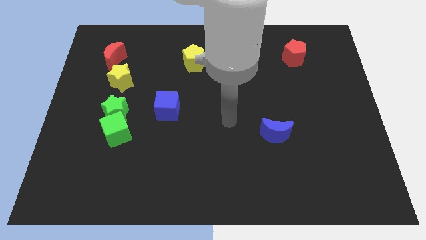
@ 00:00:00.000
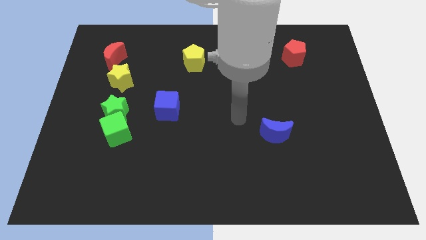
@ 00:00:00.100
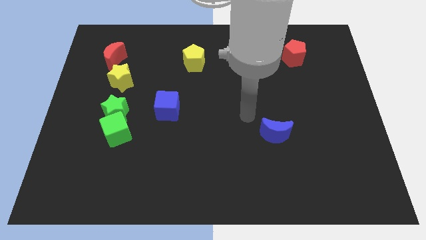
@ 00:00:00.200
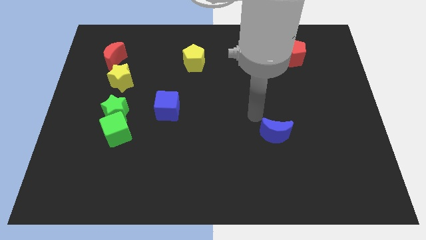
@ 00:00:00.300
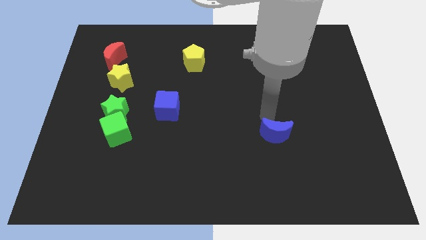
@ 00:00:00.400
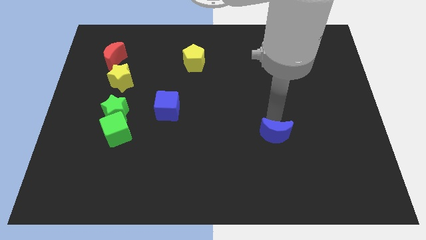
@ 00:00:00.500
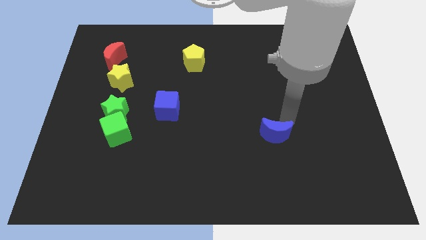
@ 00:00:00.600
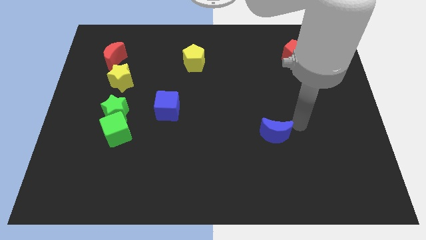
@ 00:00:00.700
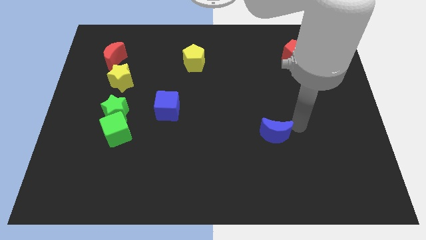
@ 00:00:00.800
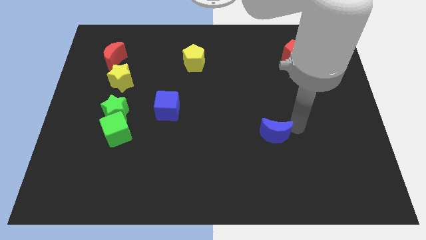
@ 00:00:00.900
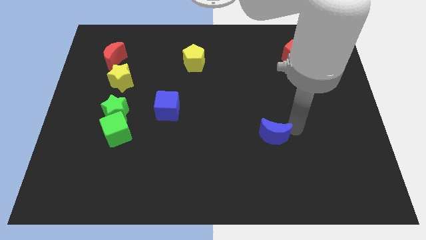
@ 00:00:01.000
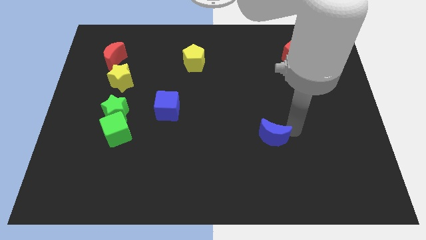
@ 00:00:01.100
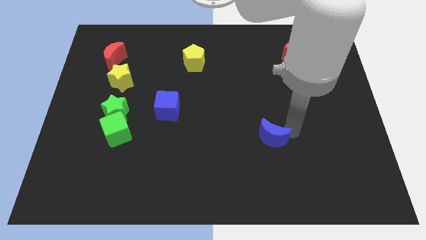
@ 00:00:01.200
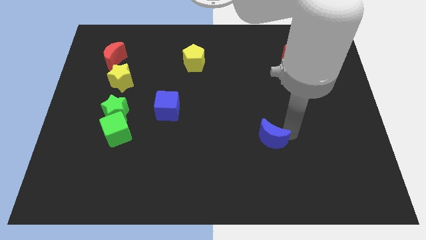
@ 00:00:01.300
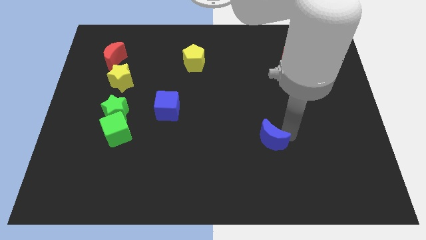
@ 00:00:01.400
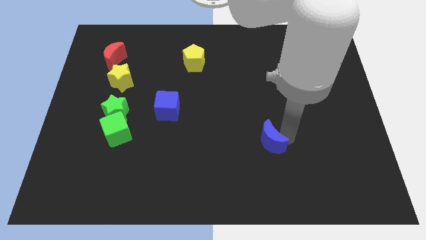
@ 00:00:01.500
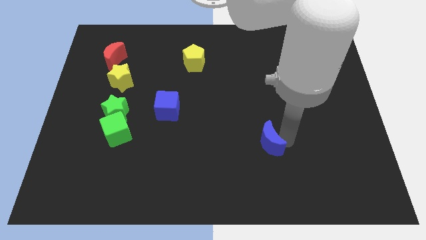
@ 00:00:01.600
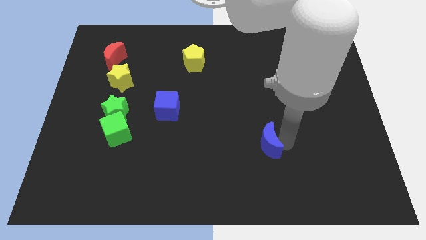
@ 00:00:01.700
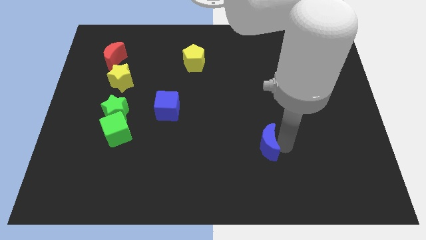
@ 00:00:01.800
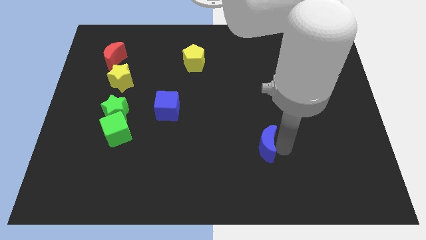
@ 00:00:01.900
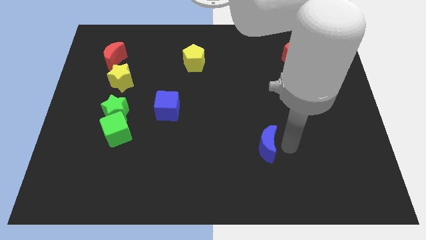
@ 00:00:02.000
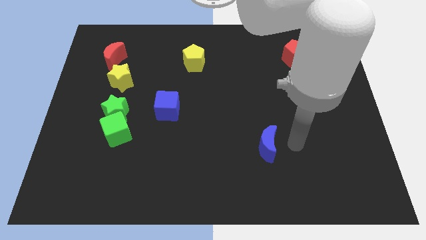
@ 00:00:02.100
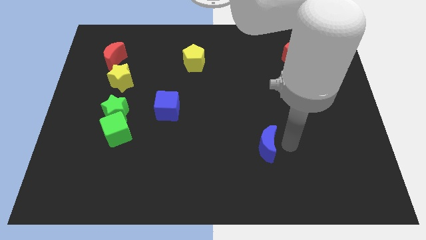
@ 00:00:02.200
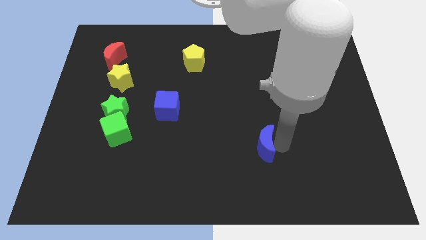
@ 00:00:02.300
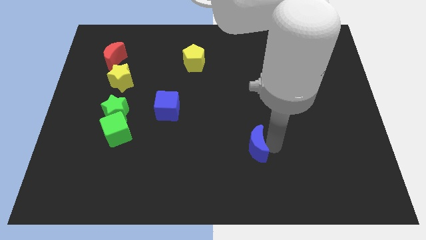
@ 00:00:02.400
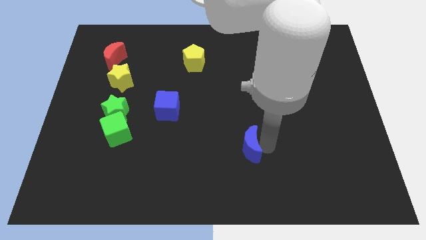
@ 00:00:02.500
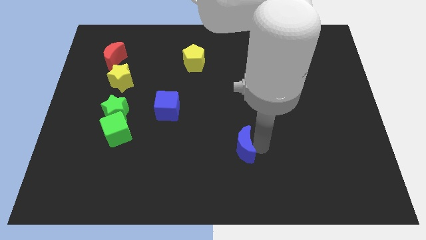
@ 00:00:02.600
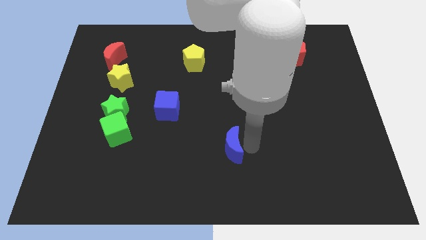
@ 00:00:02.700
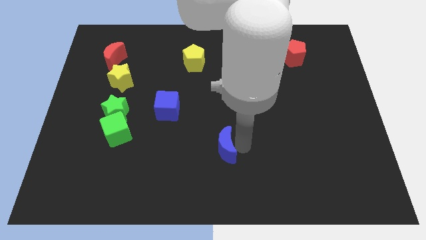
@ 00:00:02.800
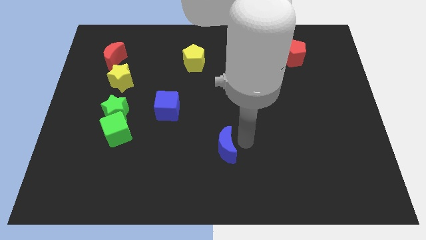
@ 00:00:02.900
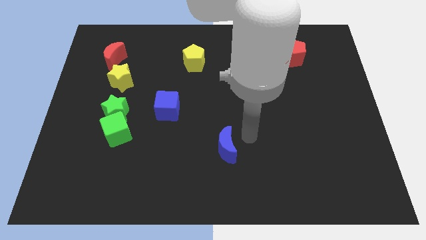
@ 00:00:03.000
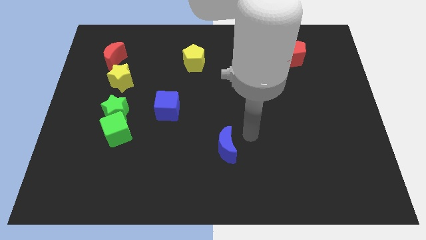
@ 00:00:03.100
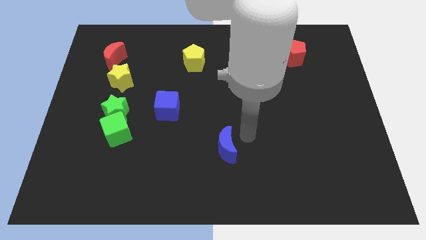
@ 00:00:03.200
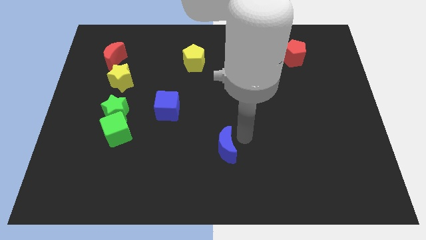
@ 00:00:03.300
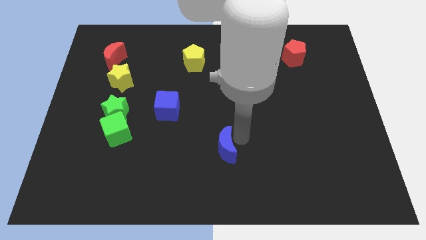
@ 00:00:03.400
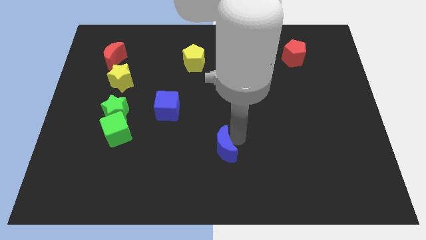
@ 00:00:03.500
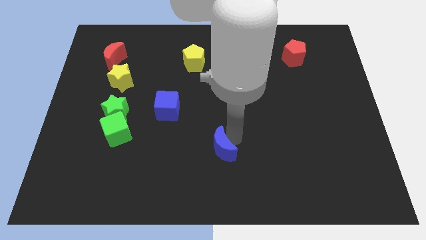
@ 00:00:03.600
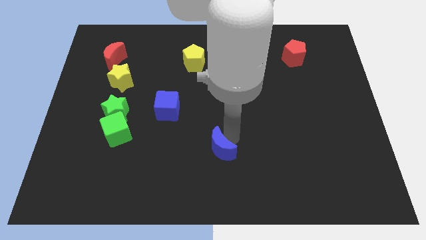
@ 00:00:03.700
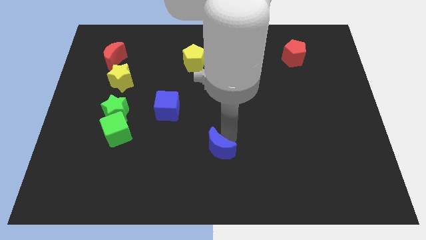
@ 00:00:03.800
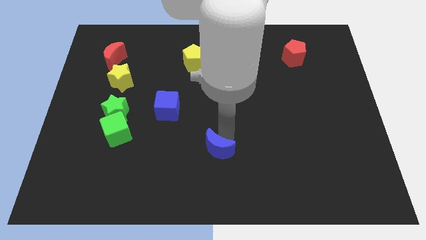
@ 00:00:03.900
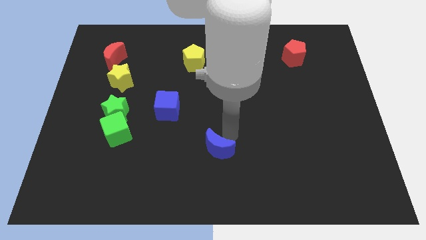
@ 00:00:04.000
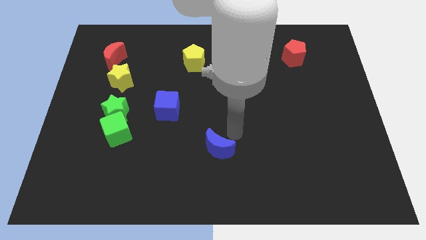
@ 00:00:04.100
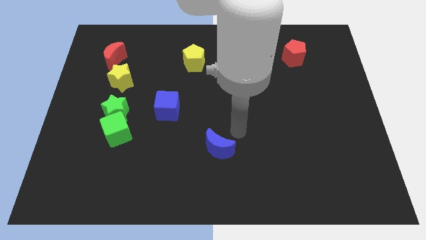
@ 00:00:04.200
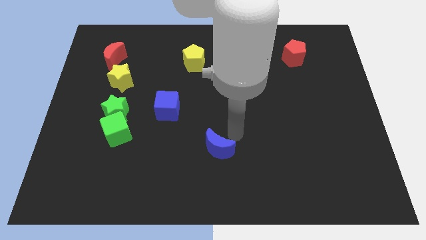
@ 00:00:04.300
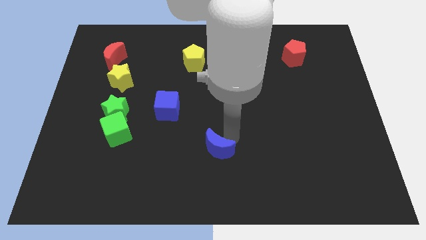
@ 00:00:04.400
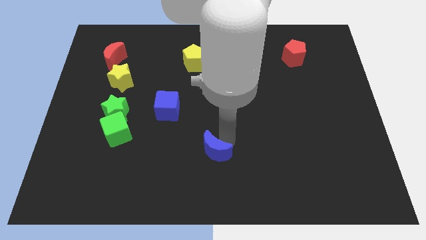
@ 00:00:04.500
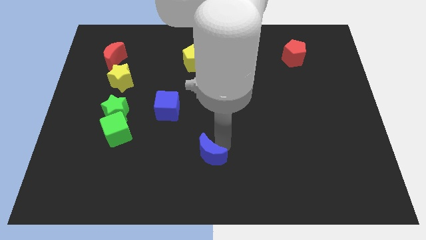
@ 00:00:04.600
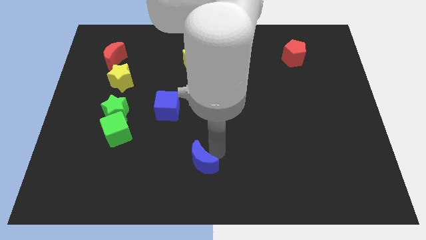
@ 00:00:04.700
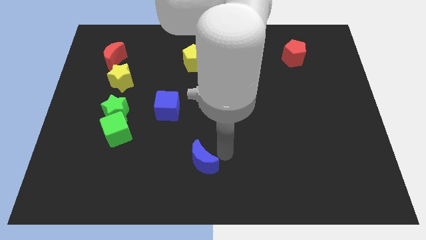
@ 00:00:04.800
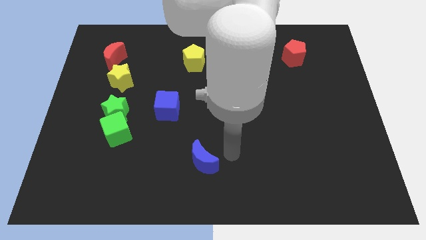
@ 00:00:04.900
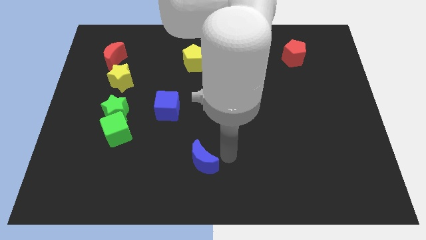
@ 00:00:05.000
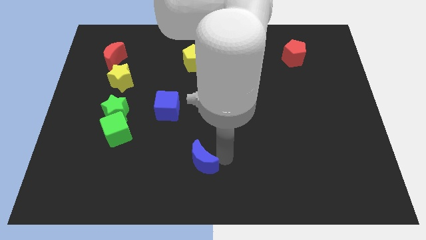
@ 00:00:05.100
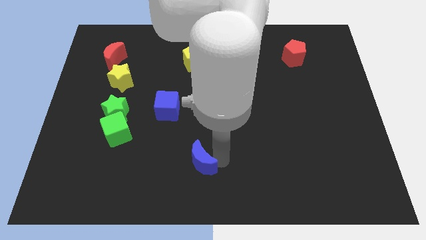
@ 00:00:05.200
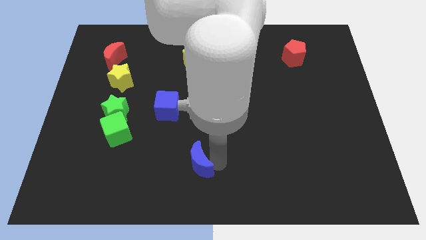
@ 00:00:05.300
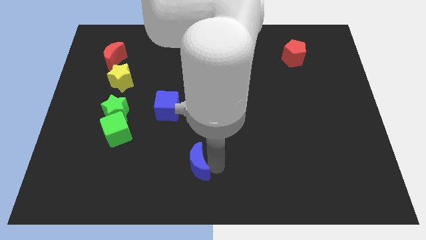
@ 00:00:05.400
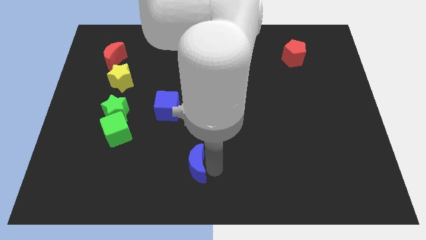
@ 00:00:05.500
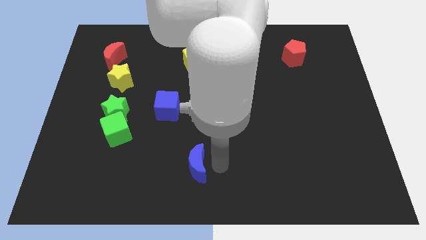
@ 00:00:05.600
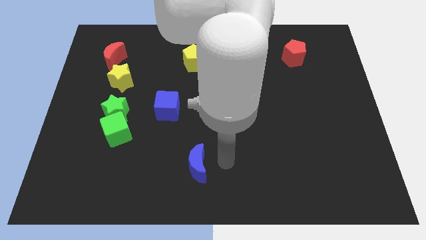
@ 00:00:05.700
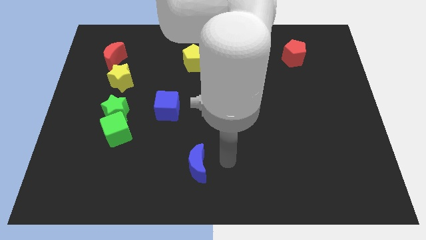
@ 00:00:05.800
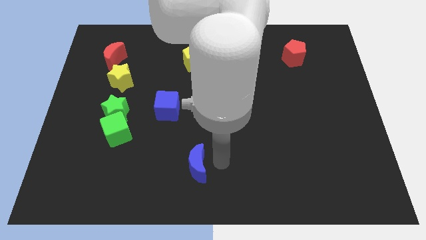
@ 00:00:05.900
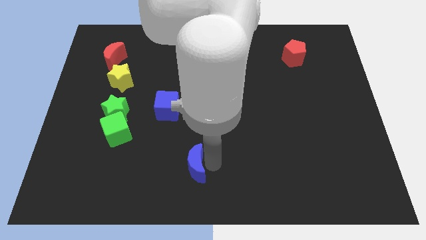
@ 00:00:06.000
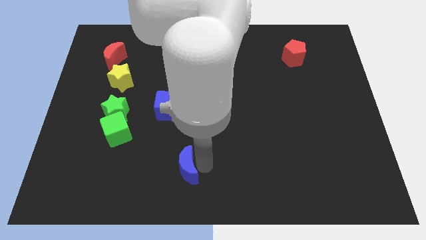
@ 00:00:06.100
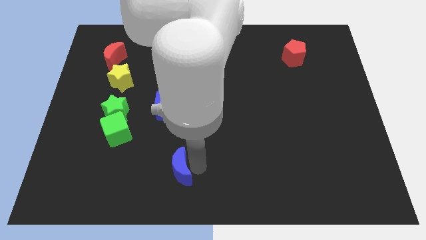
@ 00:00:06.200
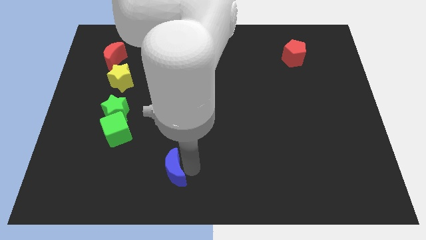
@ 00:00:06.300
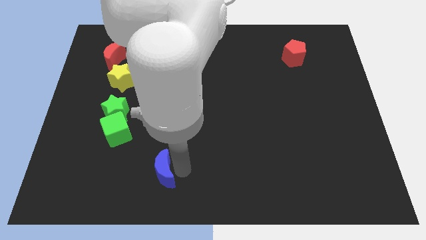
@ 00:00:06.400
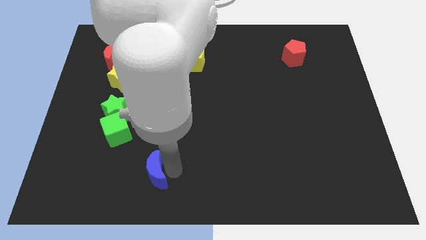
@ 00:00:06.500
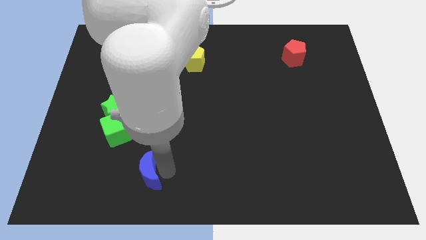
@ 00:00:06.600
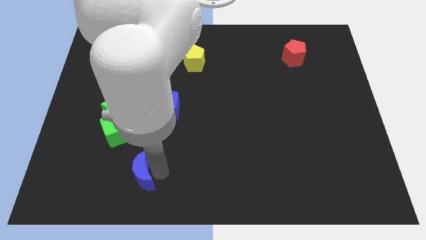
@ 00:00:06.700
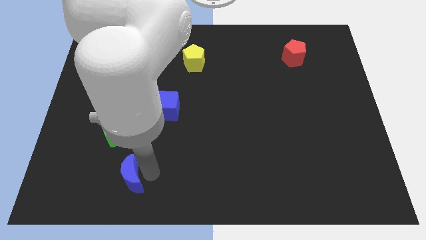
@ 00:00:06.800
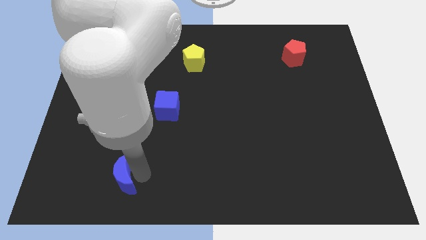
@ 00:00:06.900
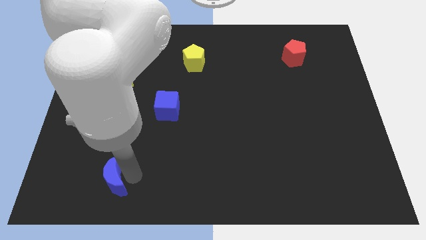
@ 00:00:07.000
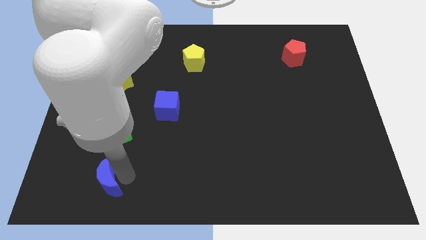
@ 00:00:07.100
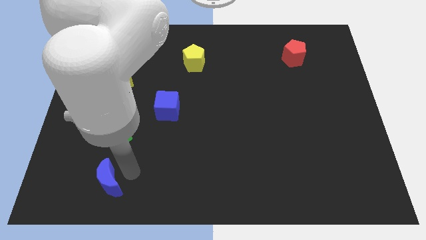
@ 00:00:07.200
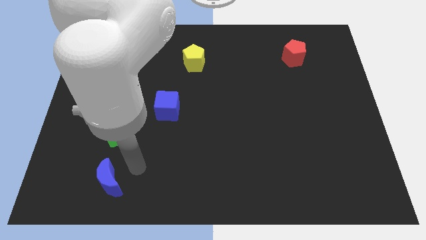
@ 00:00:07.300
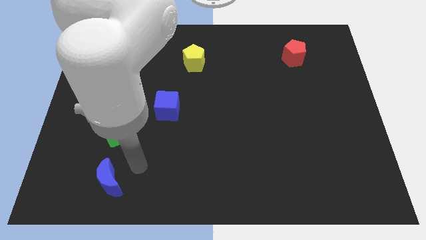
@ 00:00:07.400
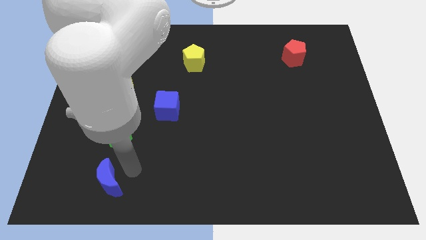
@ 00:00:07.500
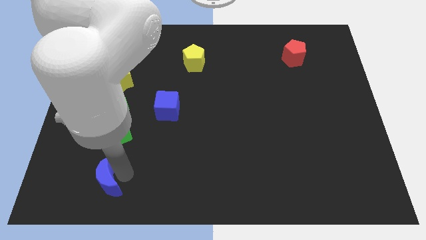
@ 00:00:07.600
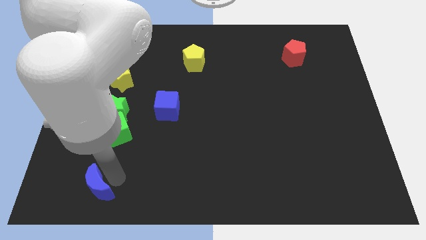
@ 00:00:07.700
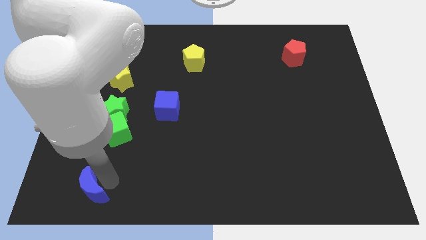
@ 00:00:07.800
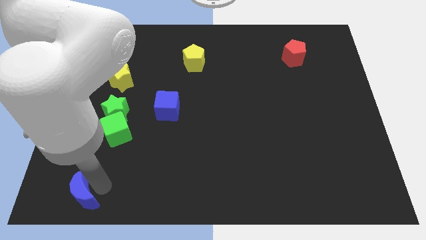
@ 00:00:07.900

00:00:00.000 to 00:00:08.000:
move the blue moon to the bottom left
